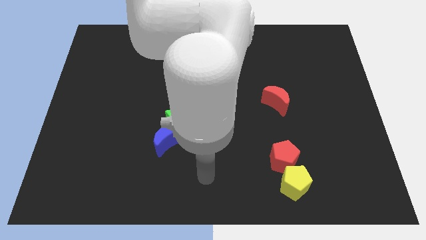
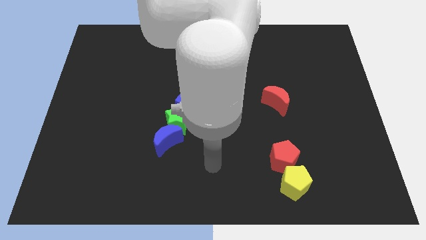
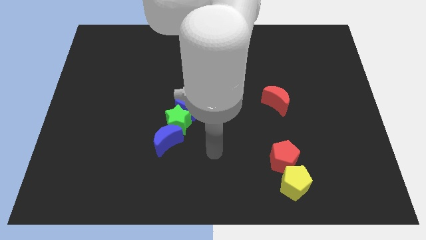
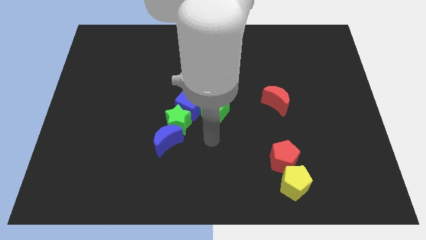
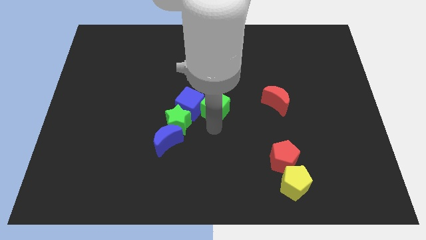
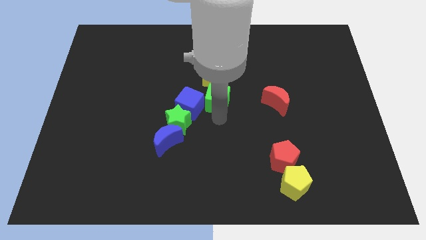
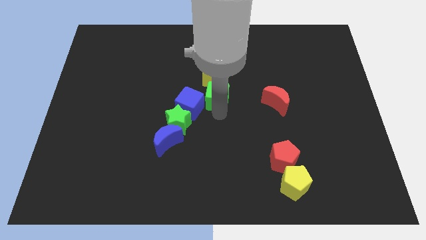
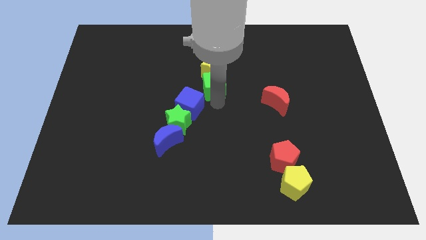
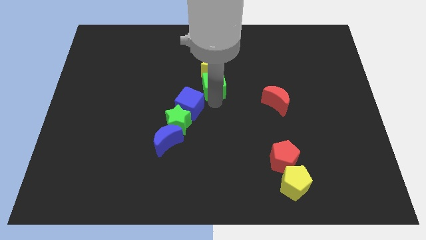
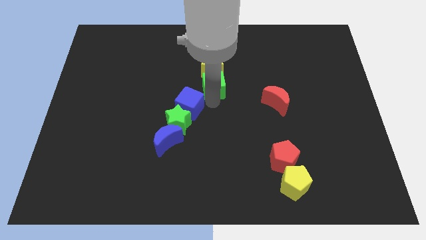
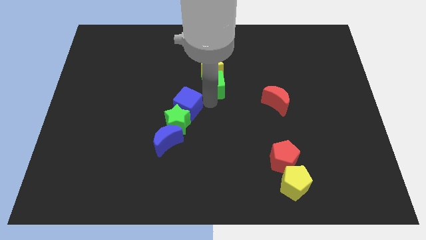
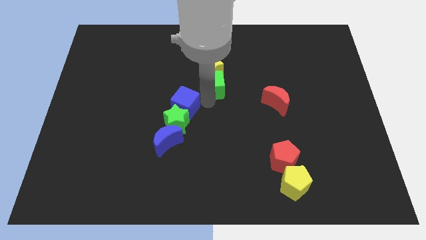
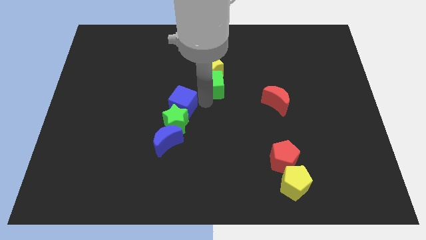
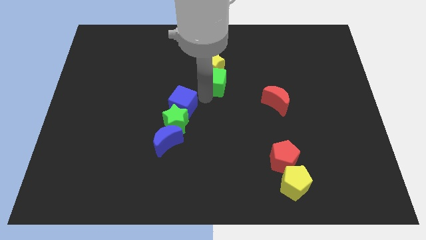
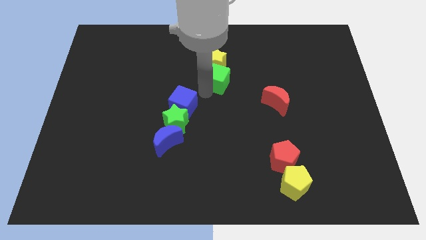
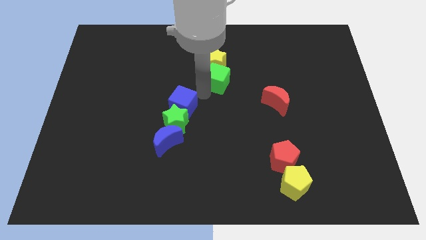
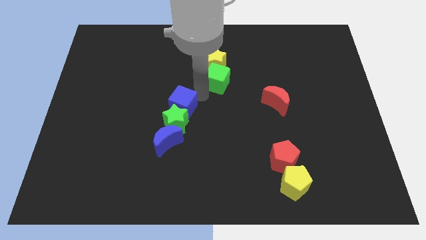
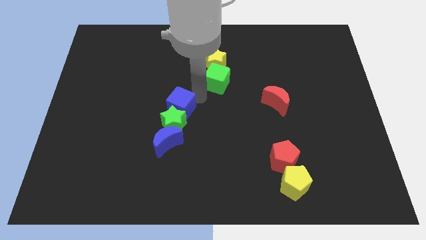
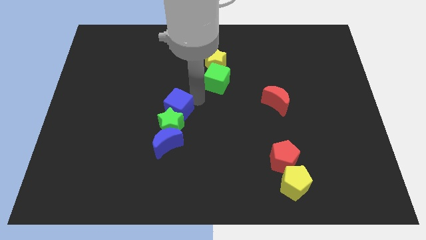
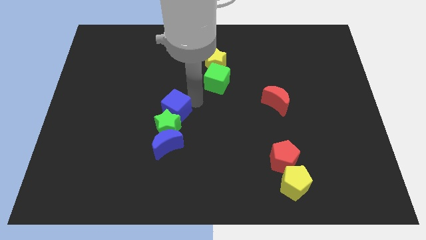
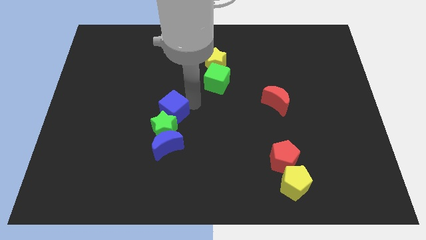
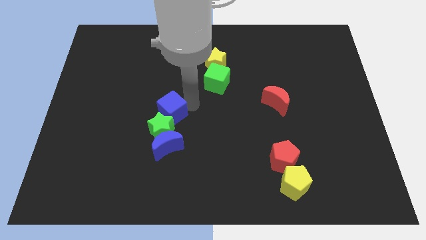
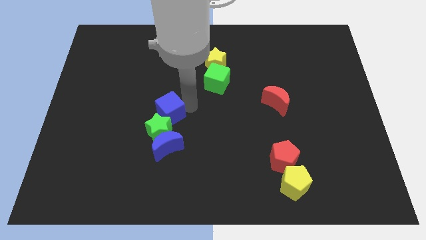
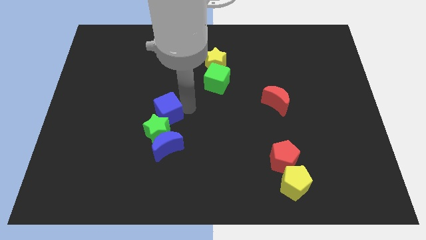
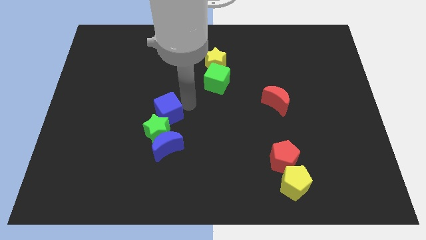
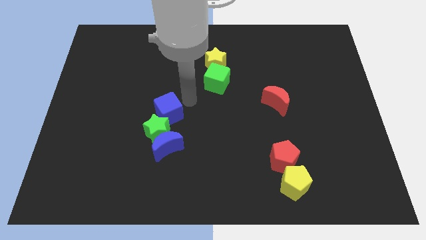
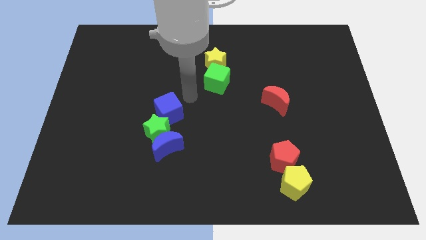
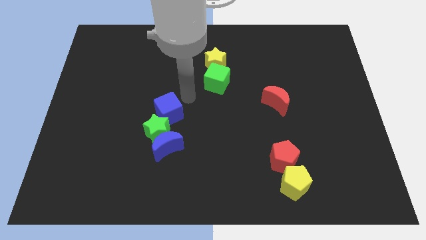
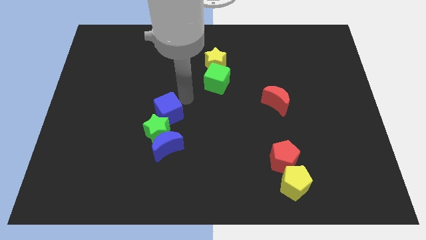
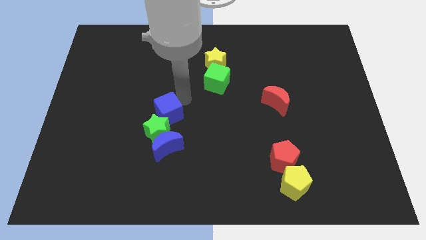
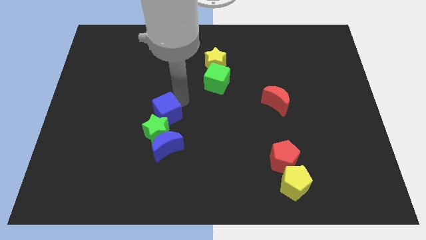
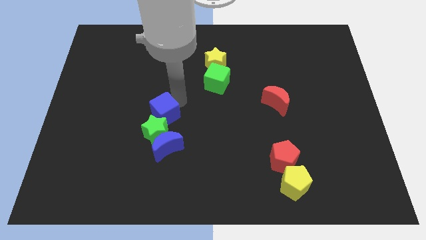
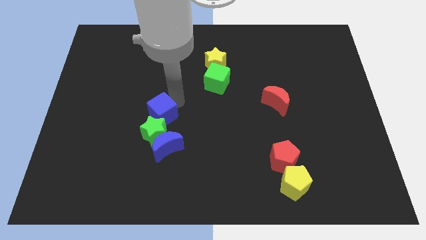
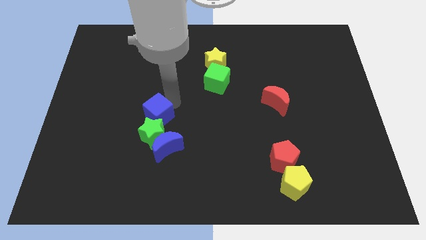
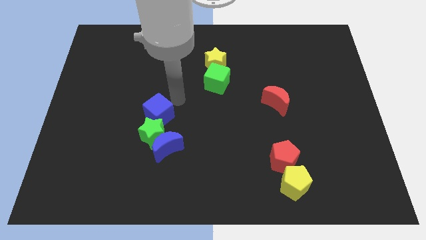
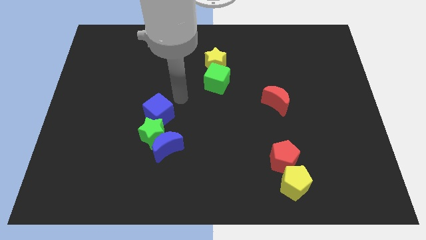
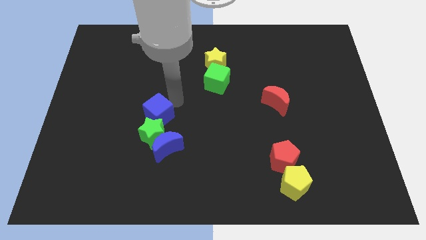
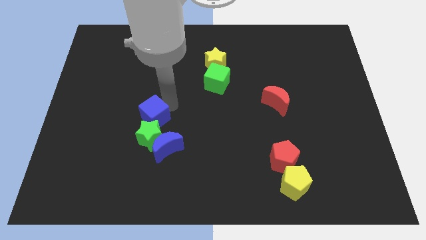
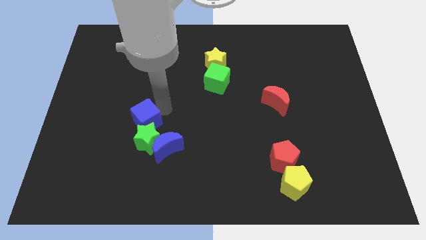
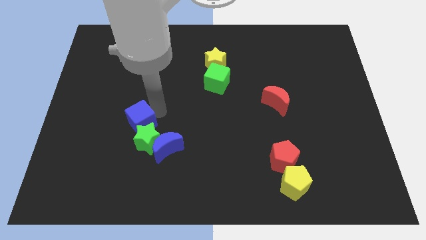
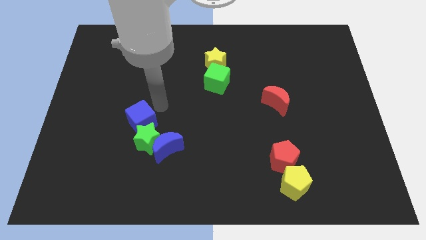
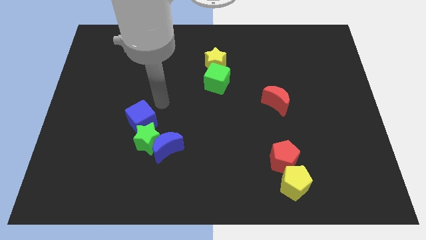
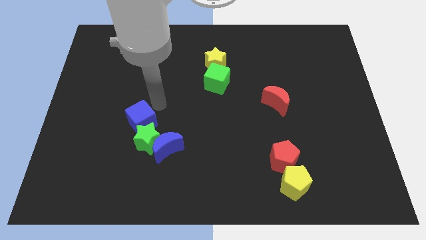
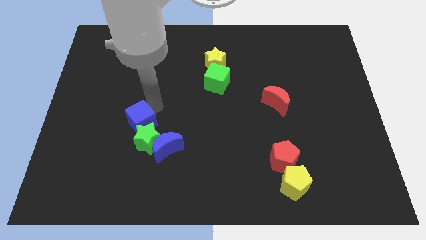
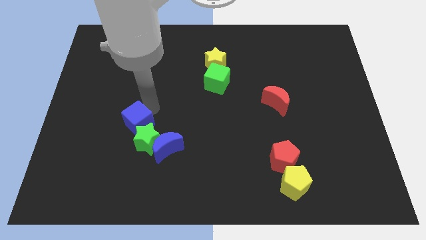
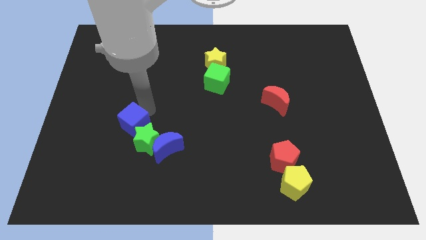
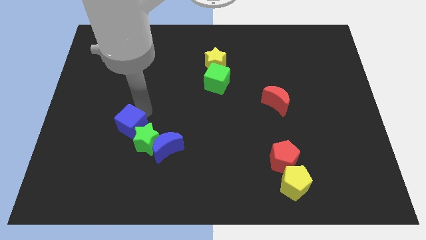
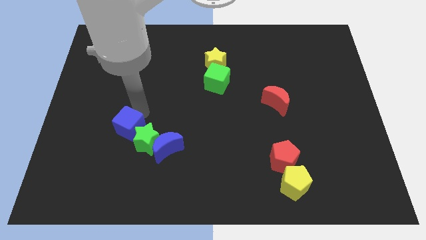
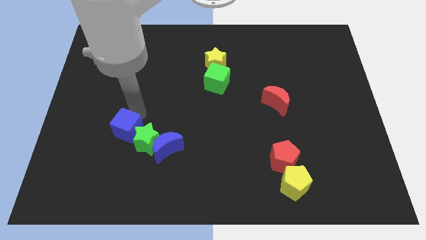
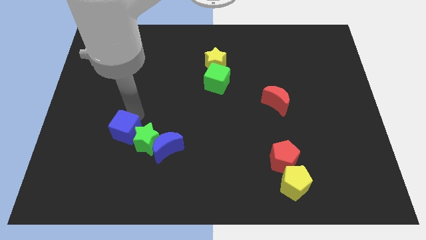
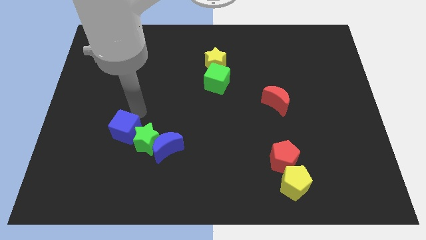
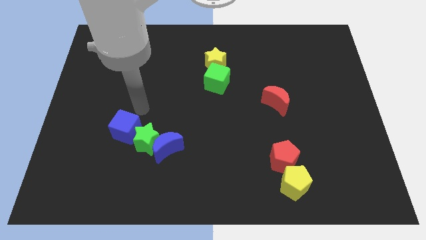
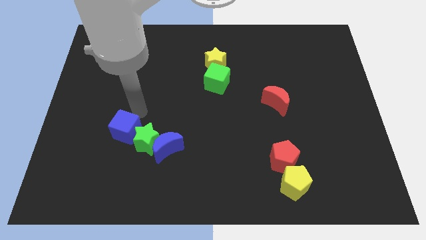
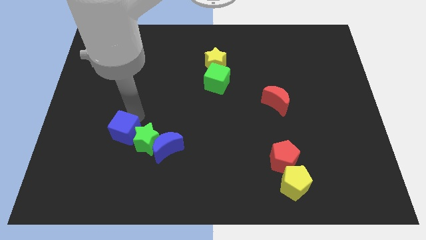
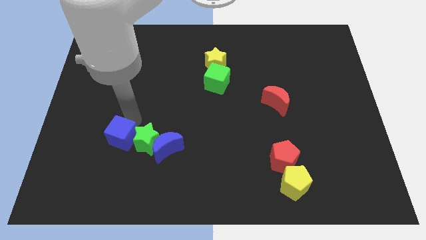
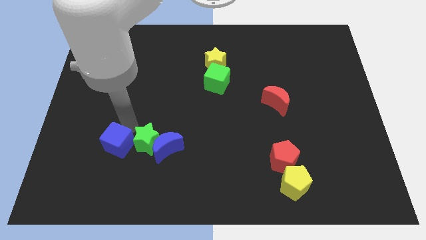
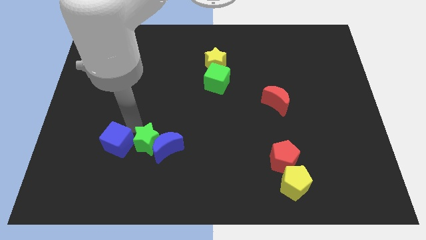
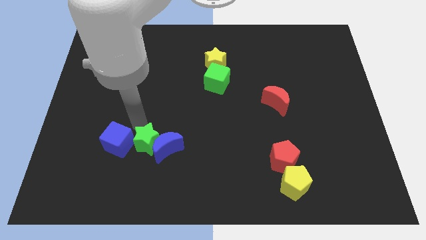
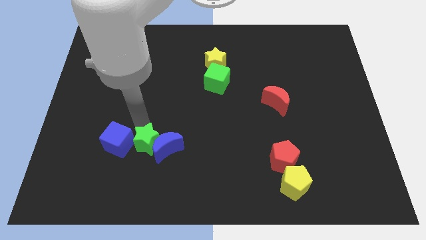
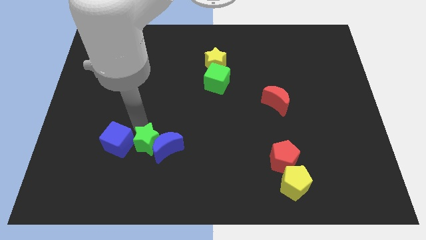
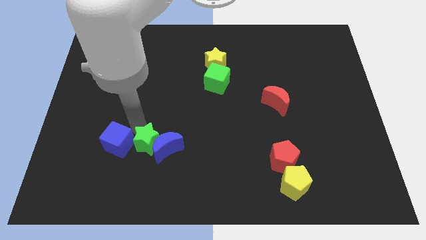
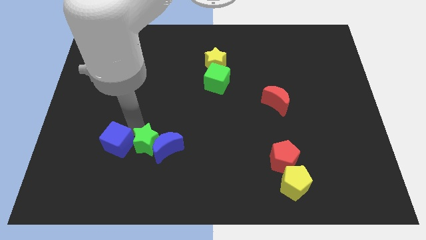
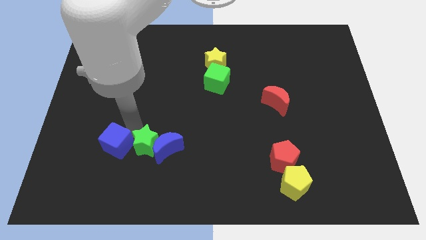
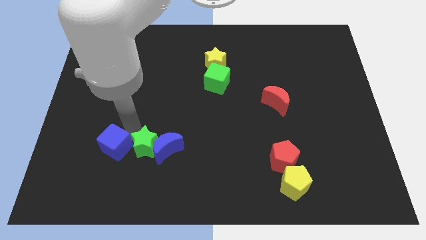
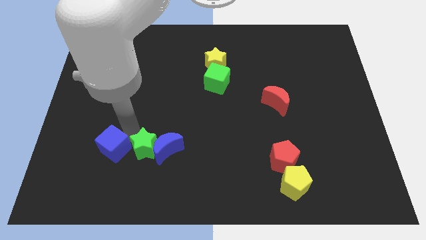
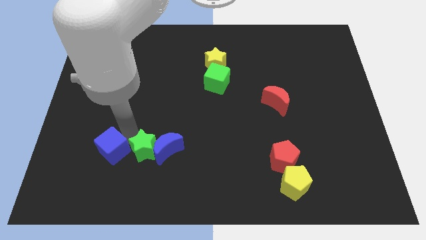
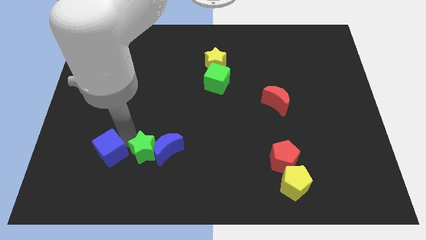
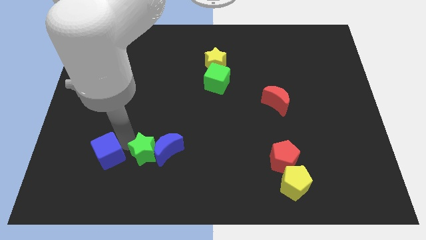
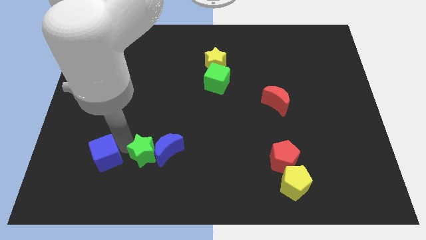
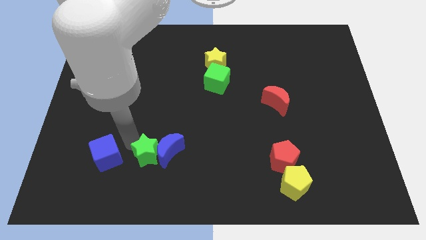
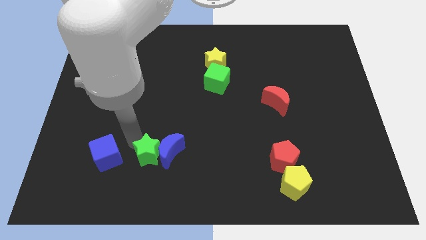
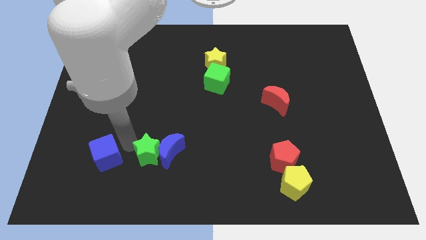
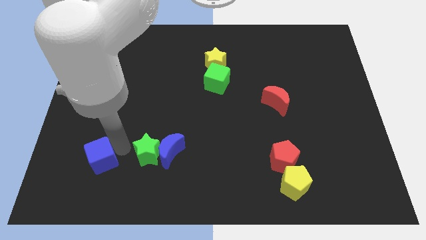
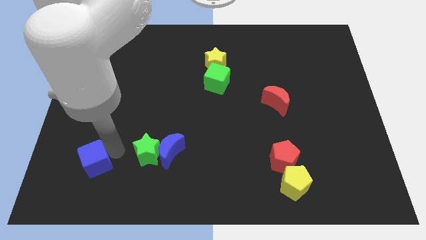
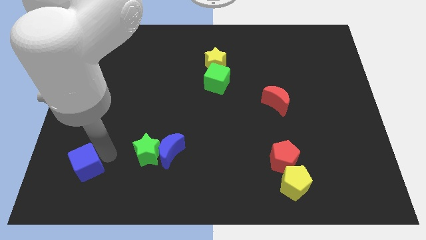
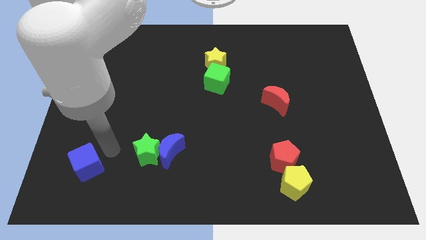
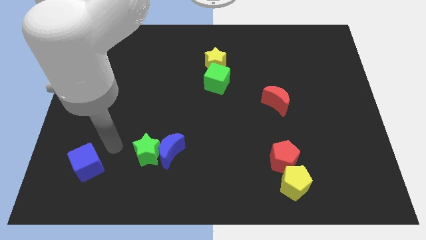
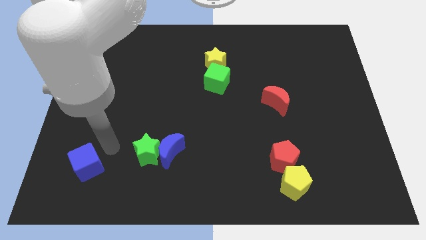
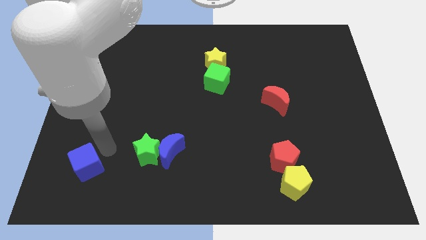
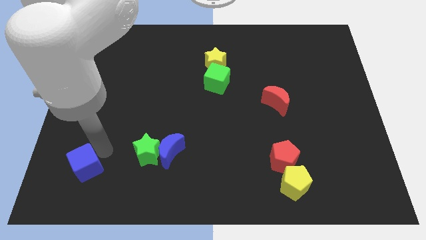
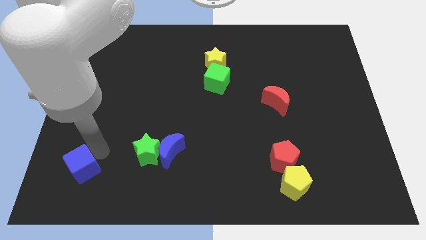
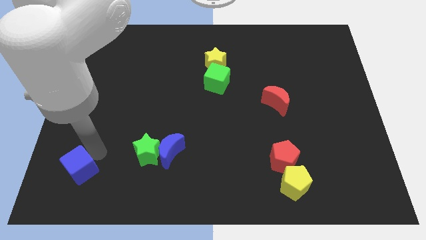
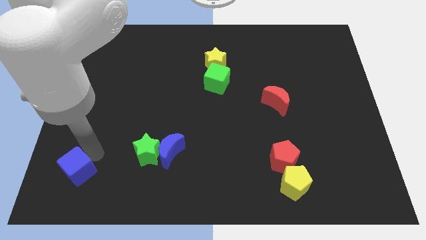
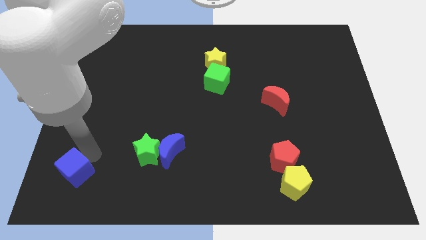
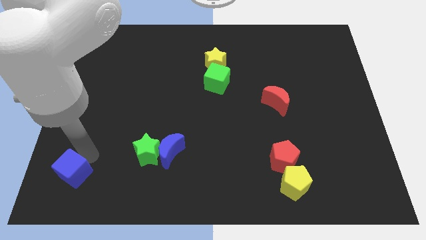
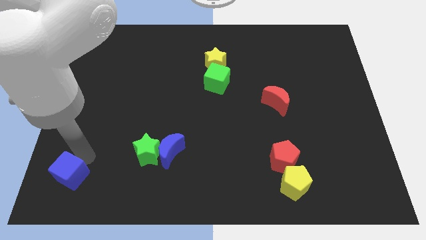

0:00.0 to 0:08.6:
slide the blue cube to the bottom left
